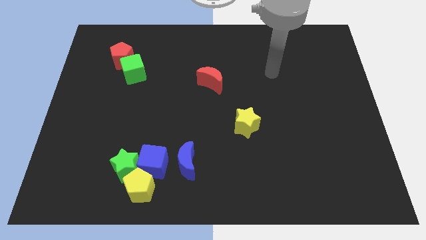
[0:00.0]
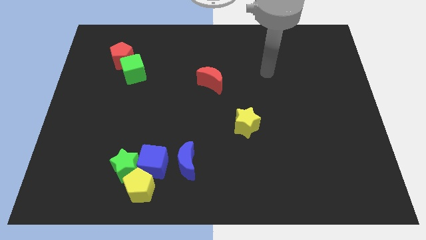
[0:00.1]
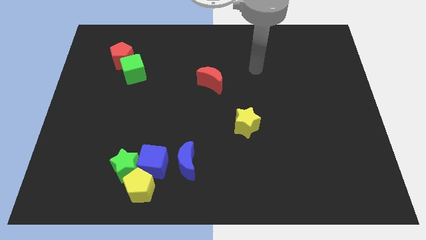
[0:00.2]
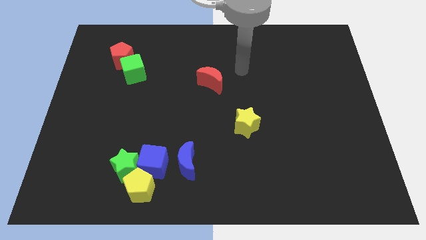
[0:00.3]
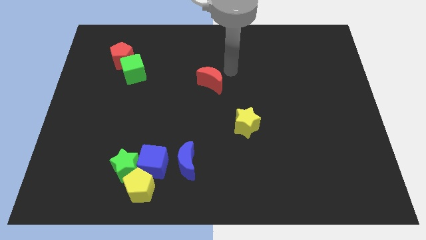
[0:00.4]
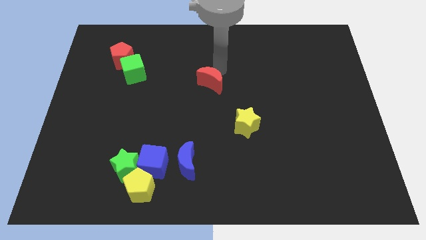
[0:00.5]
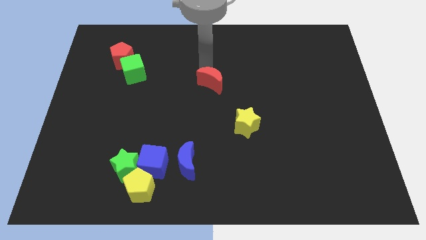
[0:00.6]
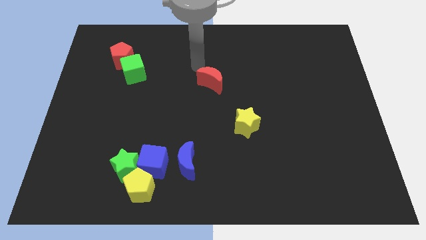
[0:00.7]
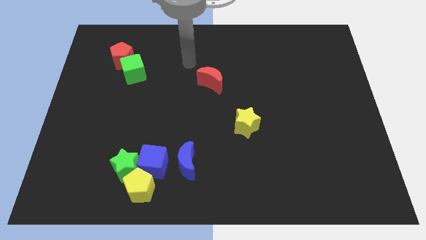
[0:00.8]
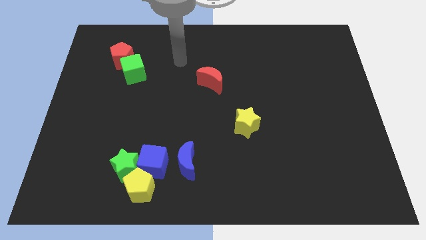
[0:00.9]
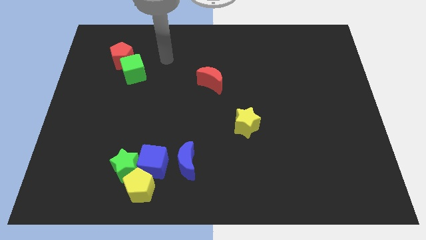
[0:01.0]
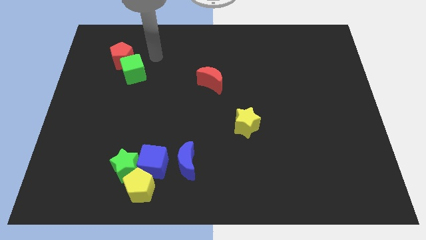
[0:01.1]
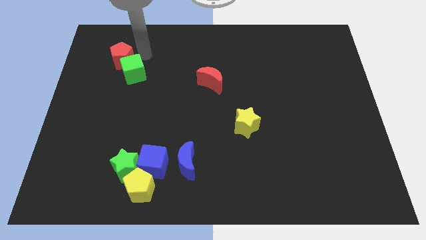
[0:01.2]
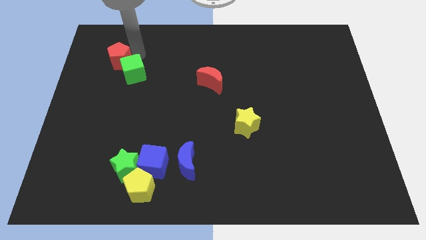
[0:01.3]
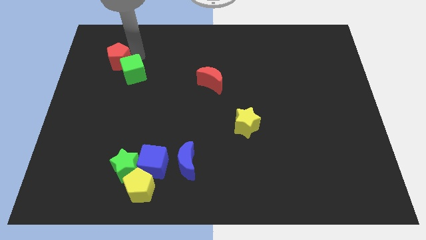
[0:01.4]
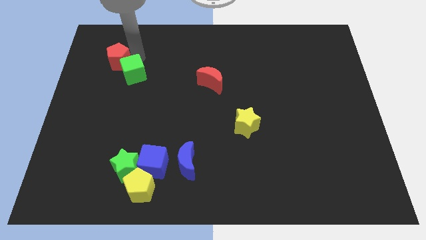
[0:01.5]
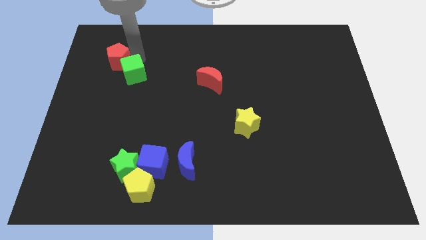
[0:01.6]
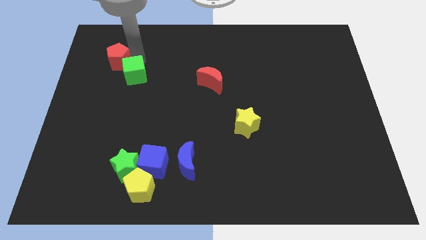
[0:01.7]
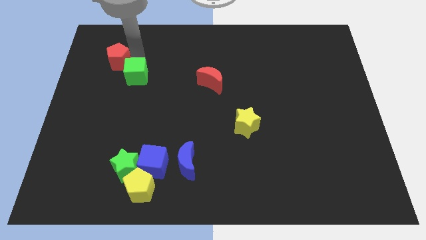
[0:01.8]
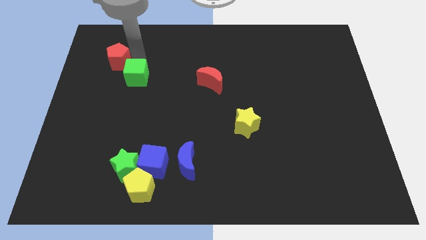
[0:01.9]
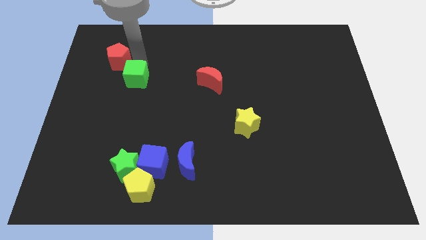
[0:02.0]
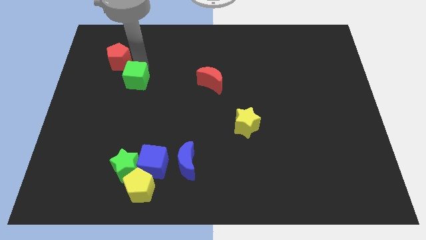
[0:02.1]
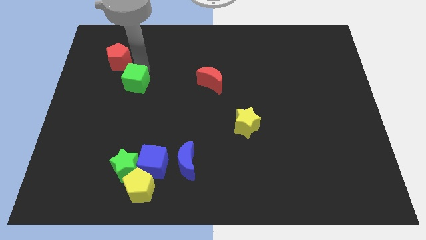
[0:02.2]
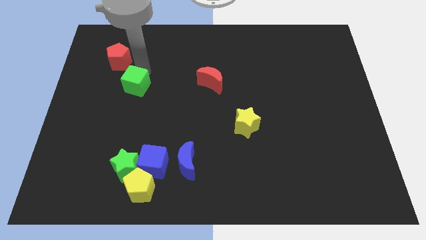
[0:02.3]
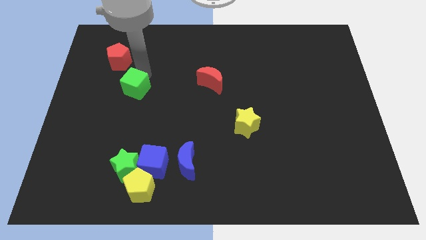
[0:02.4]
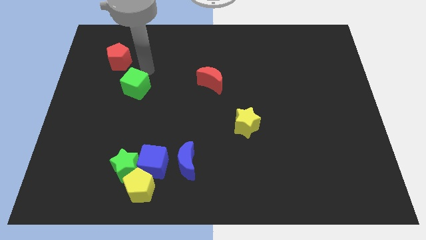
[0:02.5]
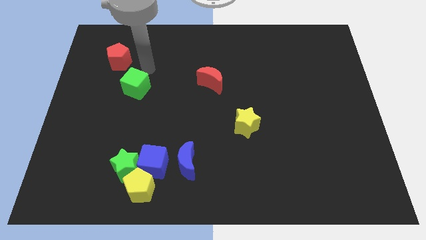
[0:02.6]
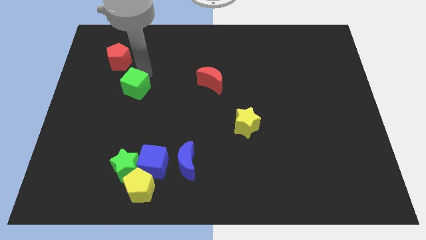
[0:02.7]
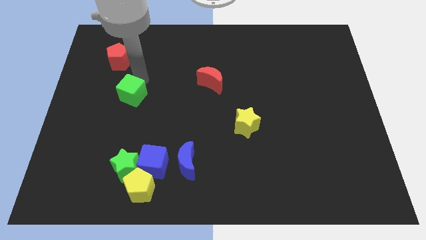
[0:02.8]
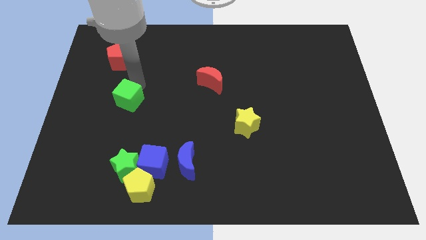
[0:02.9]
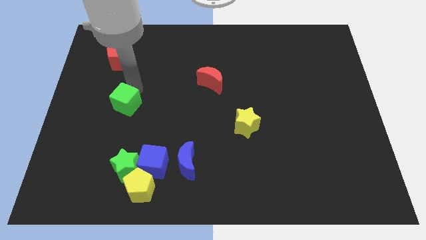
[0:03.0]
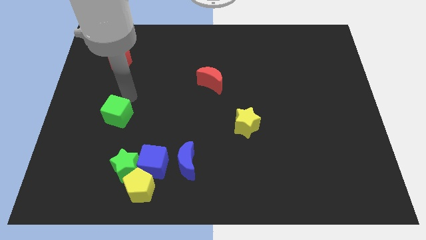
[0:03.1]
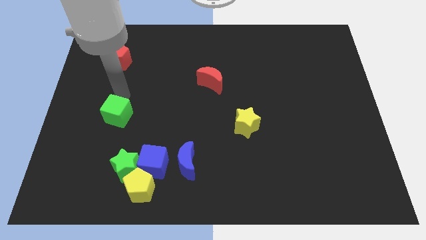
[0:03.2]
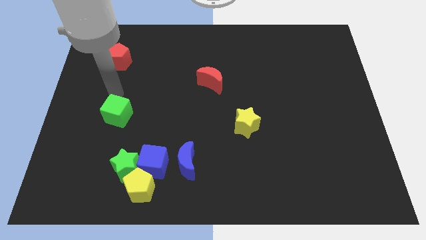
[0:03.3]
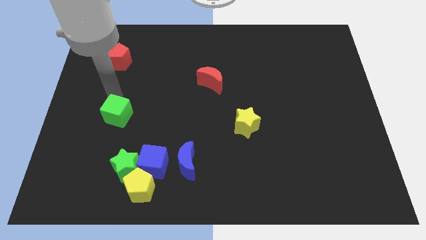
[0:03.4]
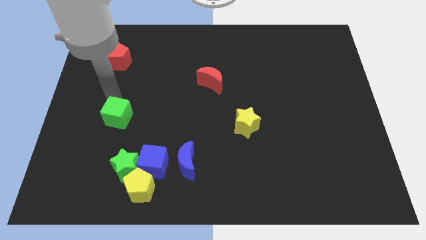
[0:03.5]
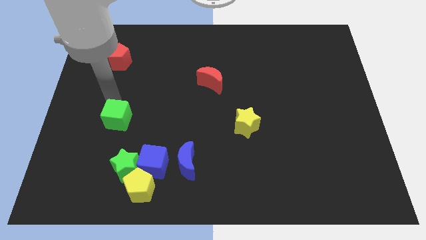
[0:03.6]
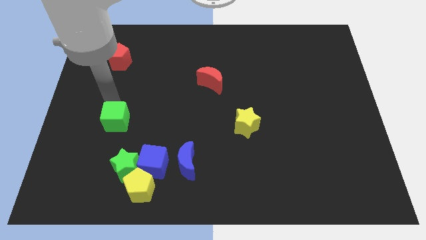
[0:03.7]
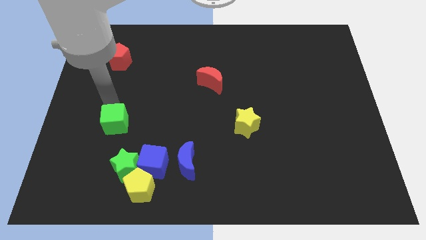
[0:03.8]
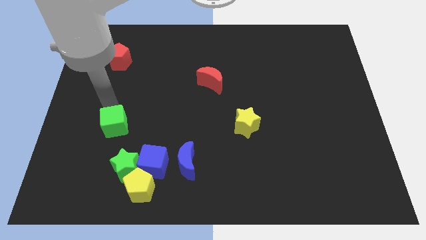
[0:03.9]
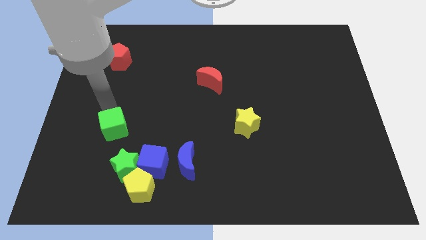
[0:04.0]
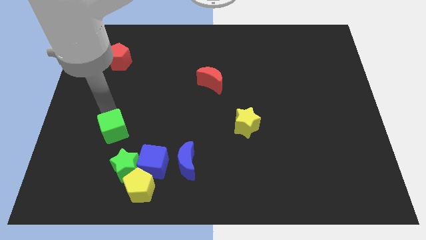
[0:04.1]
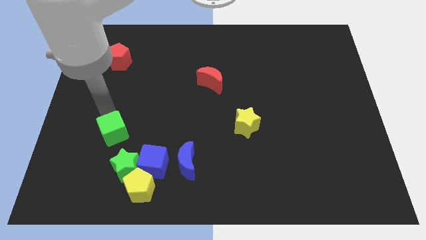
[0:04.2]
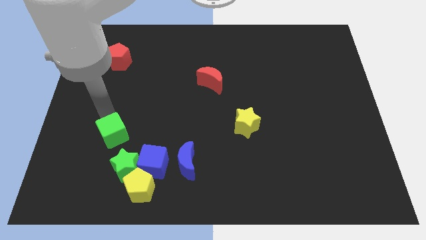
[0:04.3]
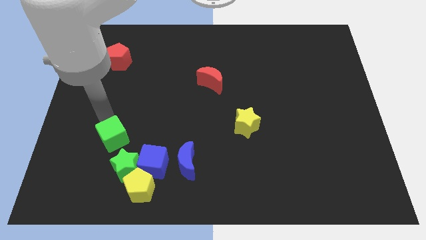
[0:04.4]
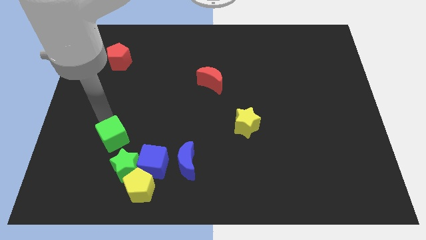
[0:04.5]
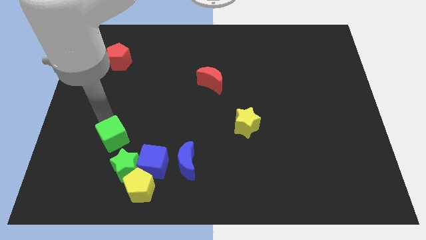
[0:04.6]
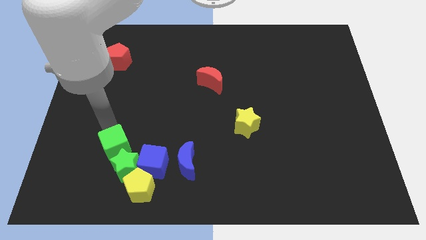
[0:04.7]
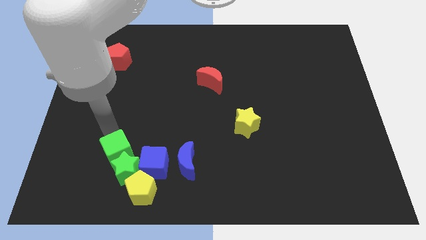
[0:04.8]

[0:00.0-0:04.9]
put the green cube next to the green star

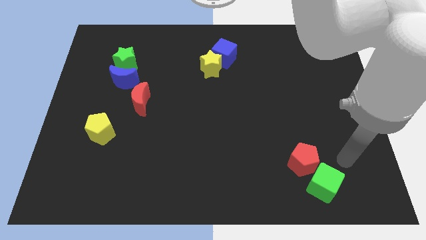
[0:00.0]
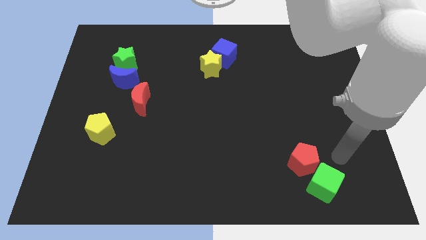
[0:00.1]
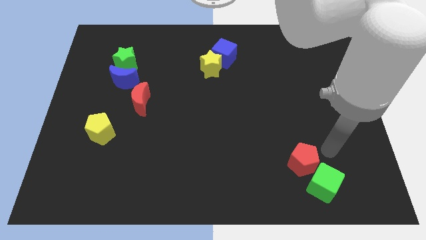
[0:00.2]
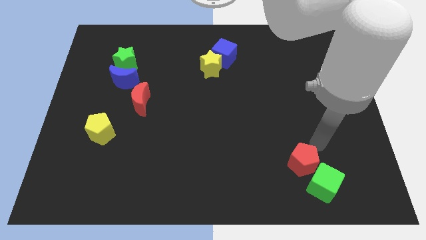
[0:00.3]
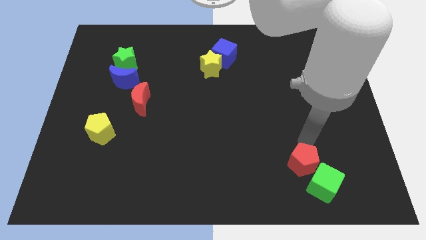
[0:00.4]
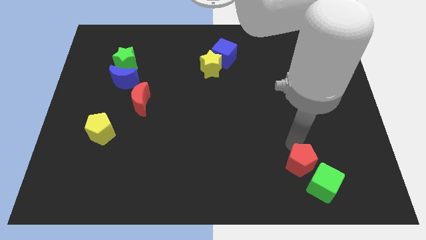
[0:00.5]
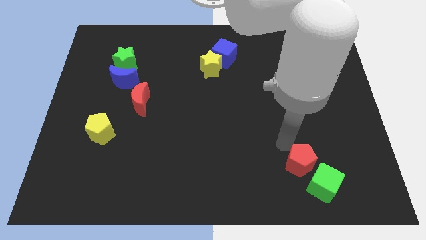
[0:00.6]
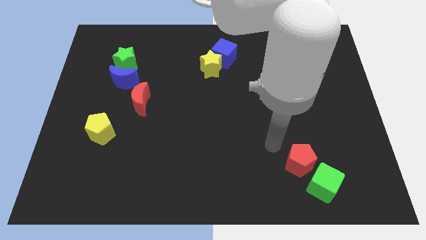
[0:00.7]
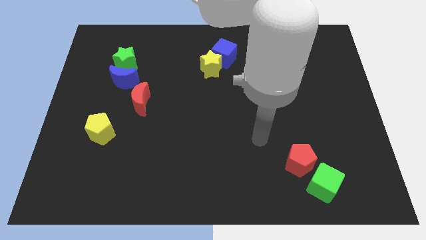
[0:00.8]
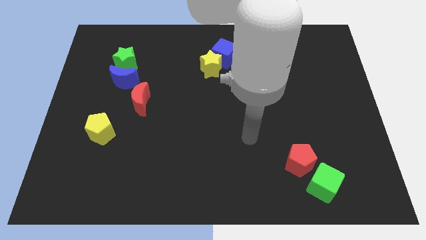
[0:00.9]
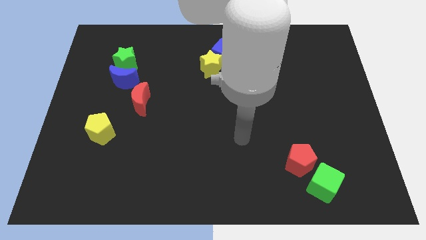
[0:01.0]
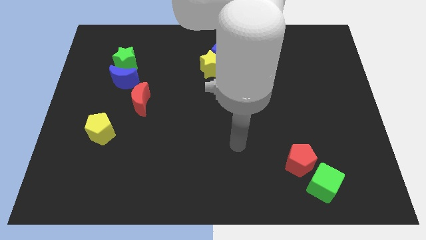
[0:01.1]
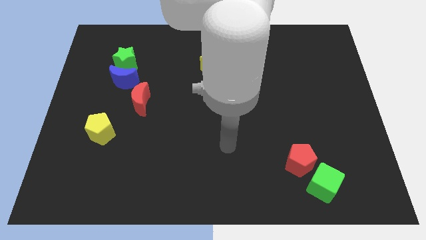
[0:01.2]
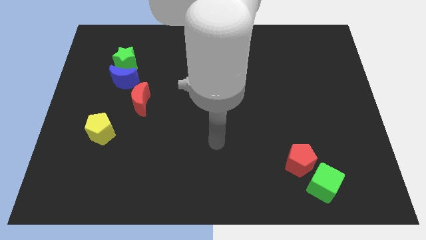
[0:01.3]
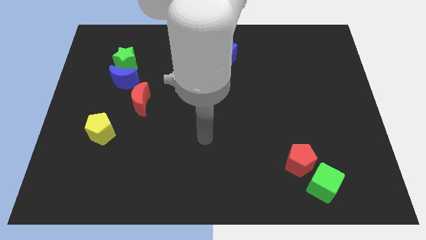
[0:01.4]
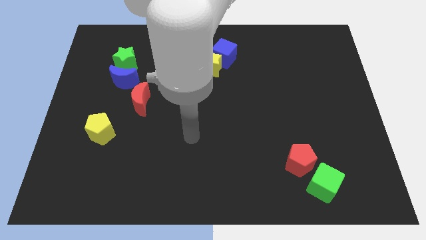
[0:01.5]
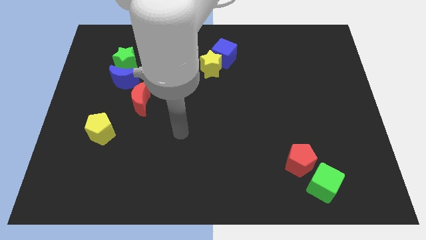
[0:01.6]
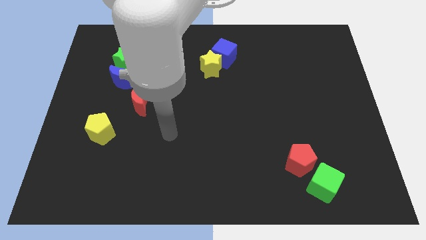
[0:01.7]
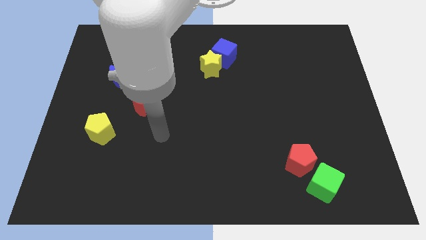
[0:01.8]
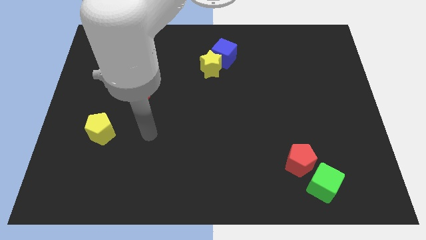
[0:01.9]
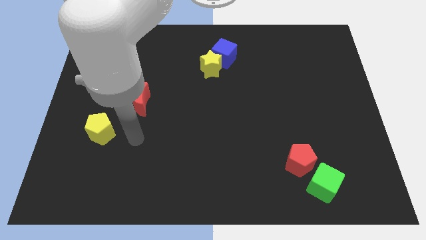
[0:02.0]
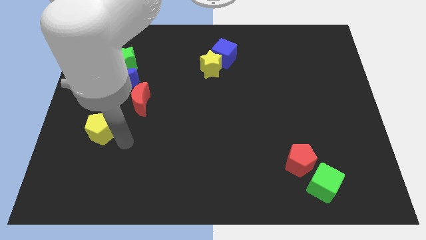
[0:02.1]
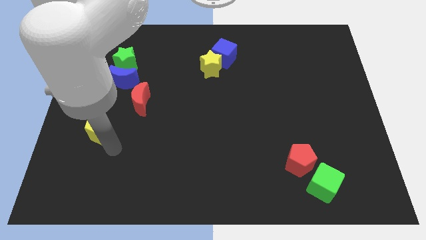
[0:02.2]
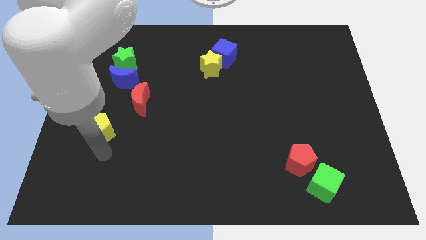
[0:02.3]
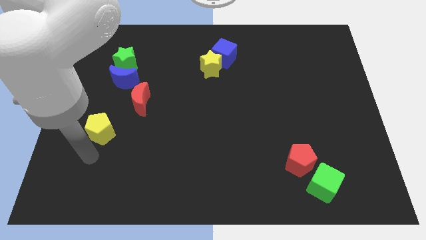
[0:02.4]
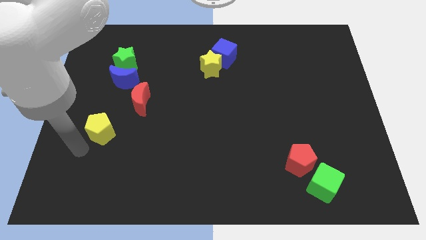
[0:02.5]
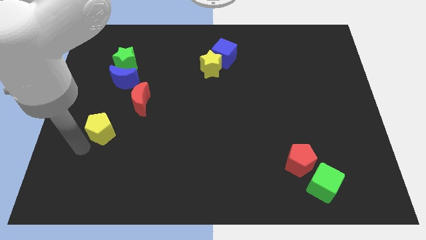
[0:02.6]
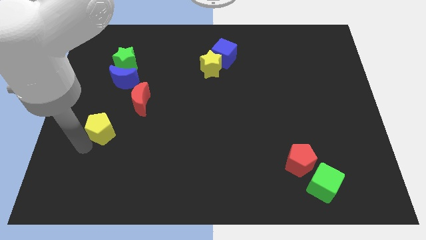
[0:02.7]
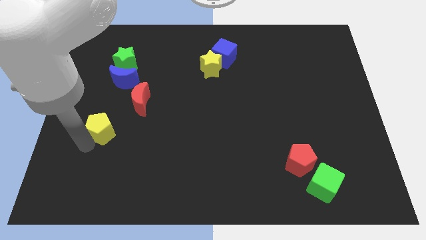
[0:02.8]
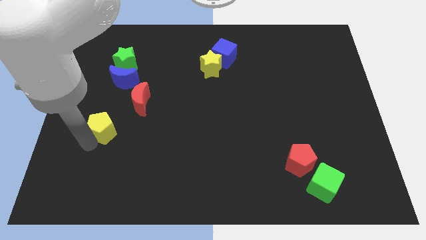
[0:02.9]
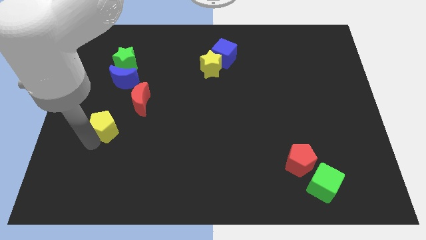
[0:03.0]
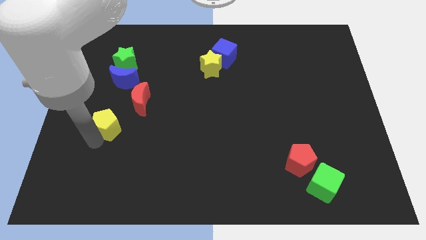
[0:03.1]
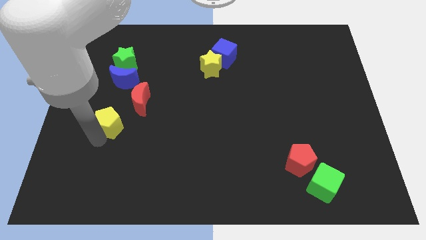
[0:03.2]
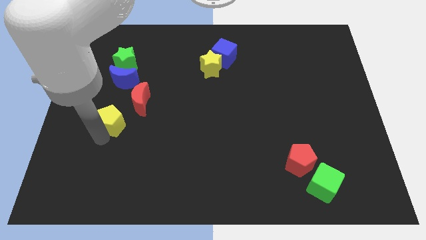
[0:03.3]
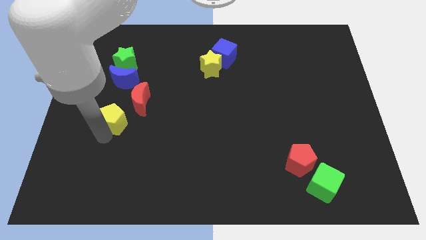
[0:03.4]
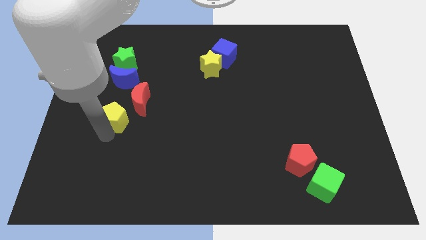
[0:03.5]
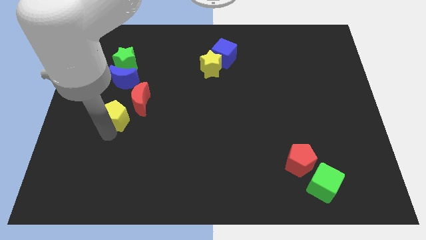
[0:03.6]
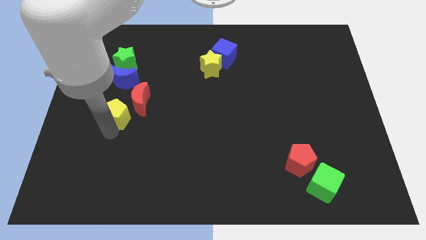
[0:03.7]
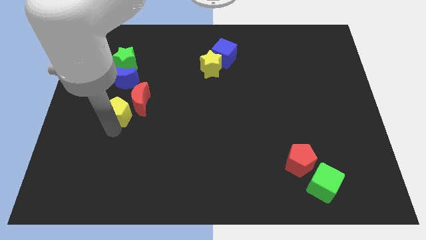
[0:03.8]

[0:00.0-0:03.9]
slide the yellow pentagon next to the red moon
